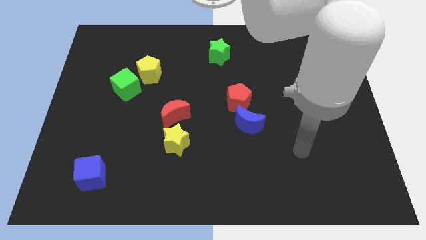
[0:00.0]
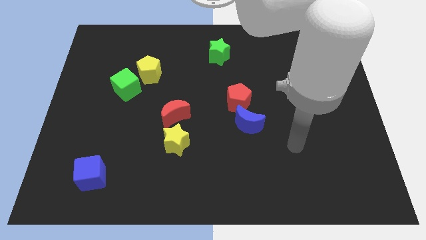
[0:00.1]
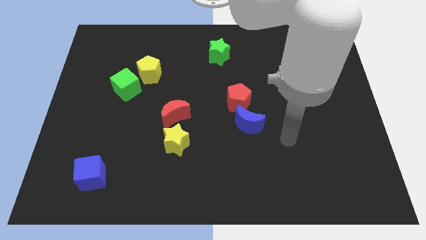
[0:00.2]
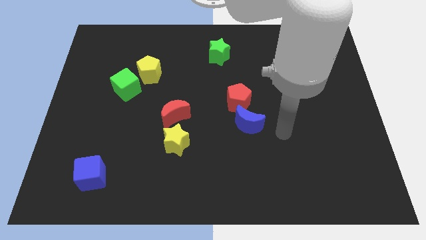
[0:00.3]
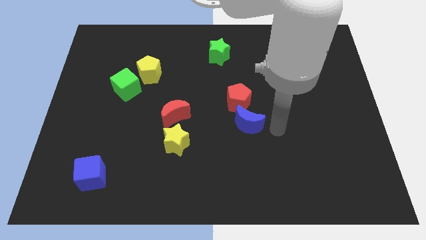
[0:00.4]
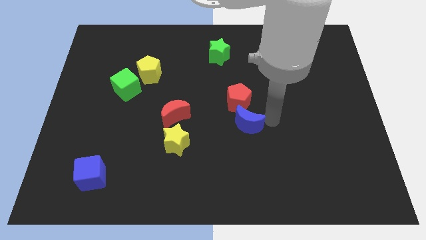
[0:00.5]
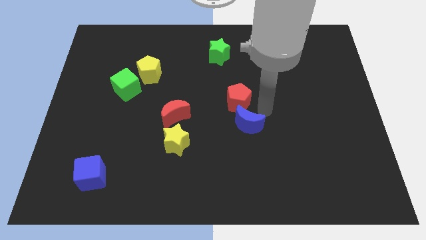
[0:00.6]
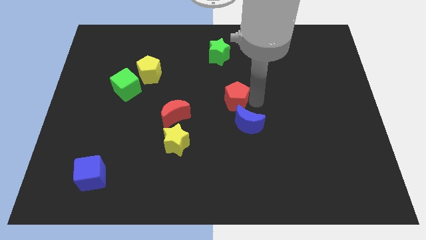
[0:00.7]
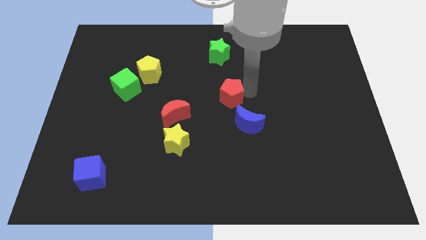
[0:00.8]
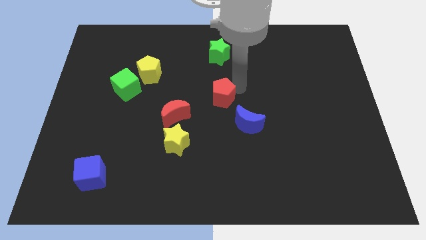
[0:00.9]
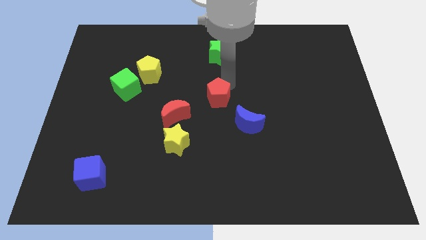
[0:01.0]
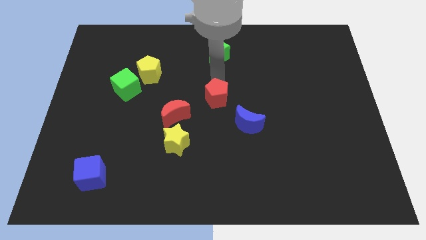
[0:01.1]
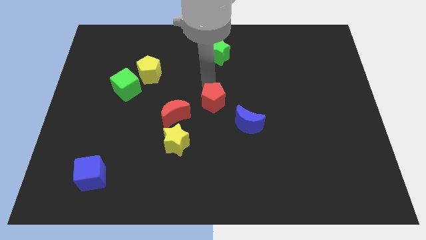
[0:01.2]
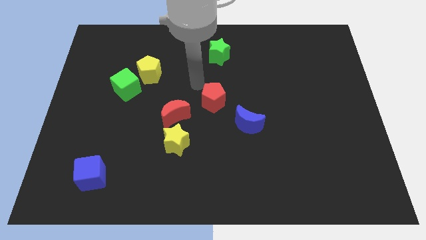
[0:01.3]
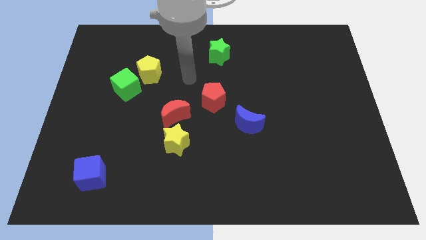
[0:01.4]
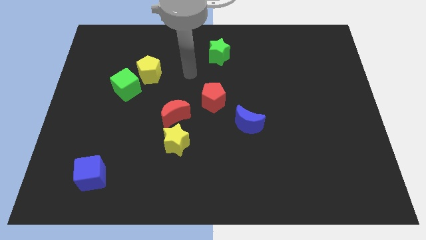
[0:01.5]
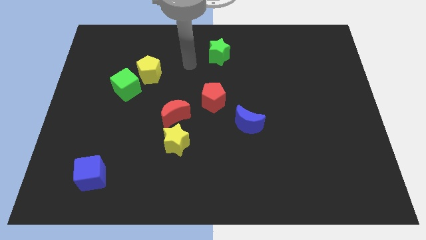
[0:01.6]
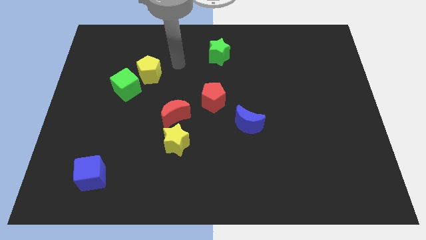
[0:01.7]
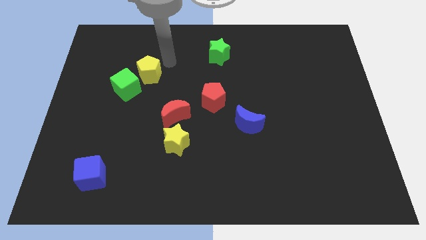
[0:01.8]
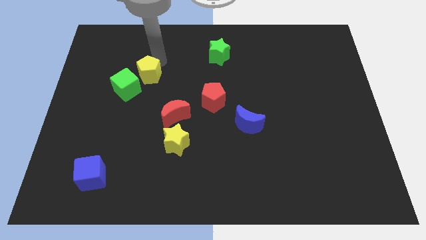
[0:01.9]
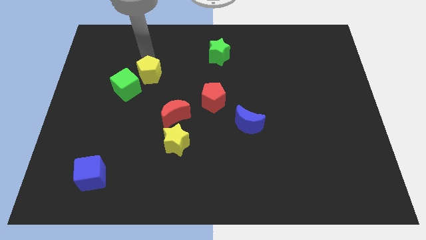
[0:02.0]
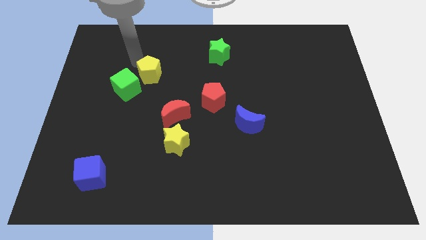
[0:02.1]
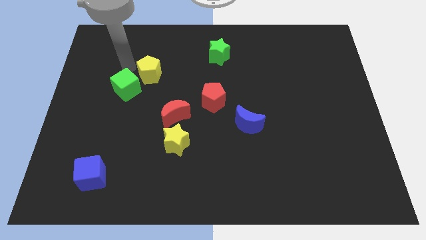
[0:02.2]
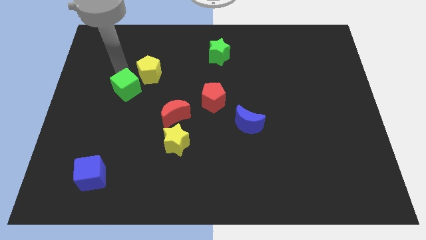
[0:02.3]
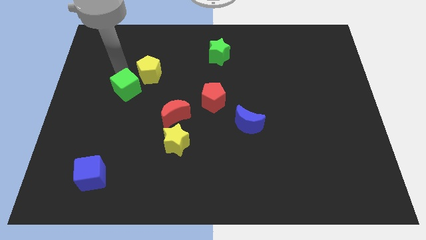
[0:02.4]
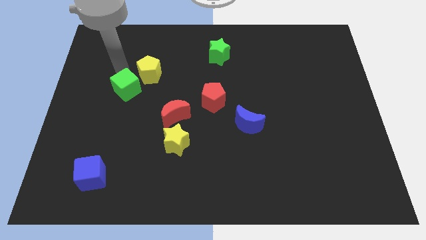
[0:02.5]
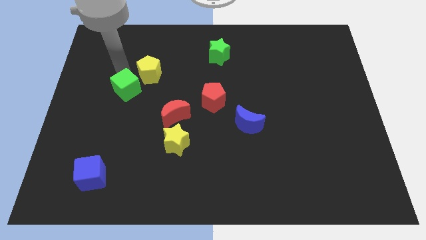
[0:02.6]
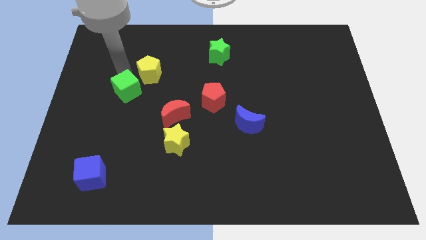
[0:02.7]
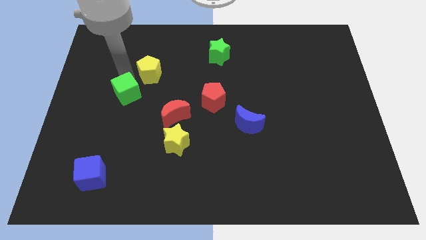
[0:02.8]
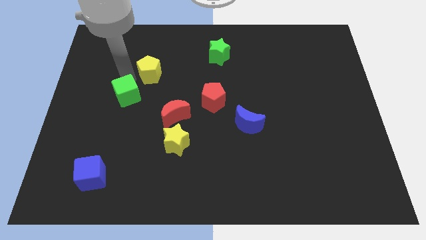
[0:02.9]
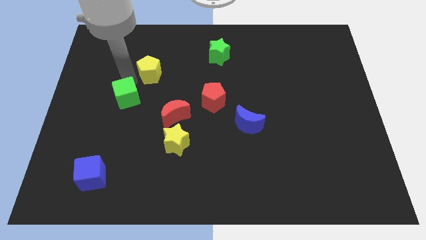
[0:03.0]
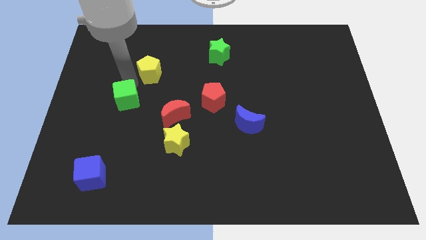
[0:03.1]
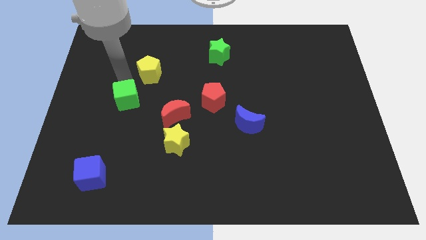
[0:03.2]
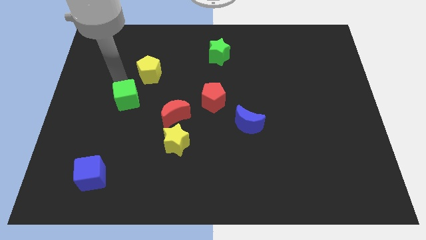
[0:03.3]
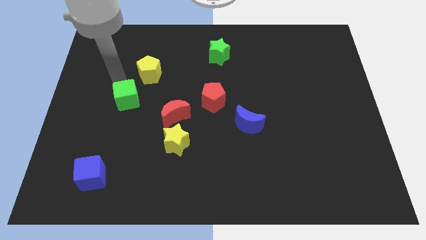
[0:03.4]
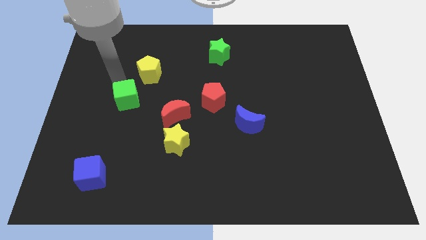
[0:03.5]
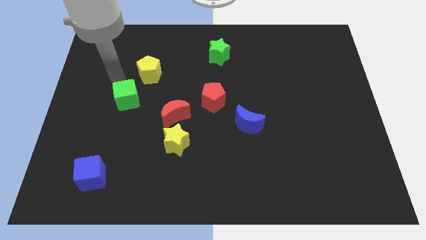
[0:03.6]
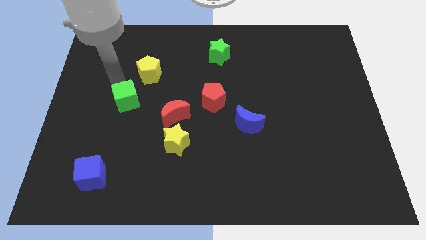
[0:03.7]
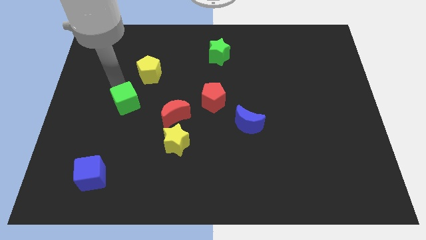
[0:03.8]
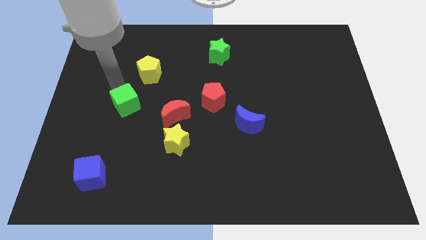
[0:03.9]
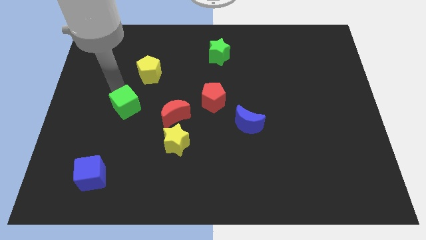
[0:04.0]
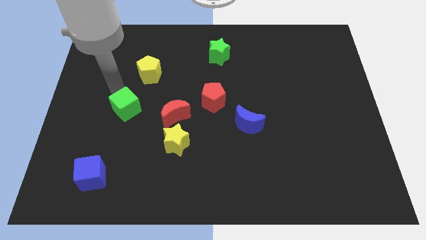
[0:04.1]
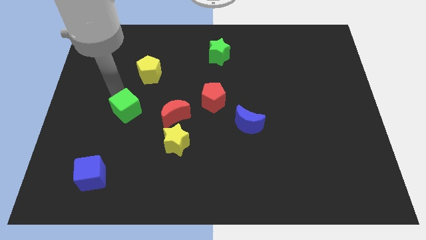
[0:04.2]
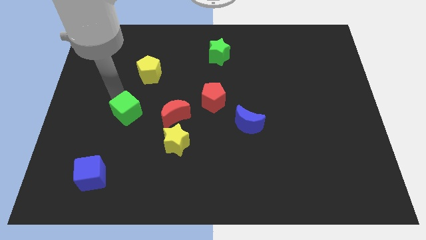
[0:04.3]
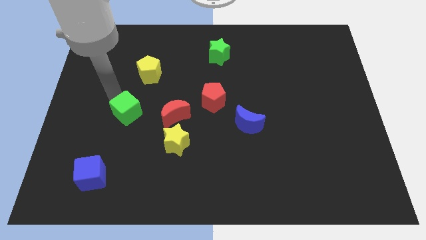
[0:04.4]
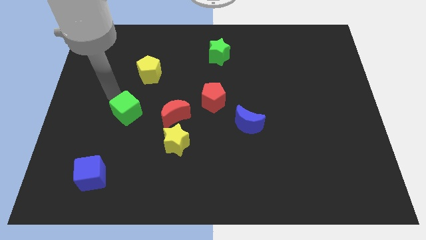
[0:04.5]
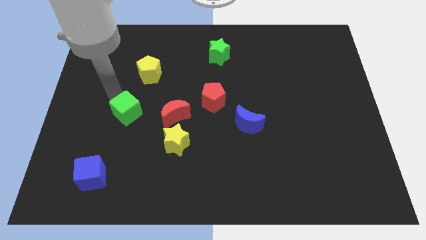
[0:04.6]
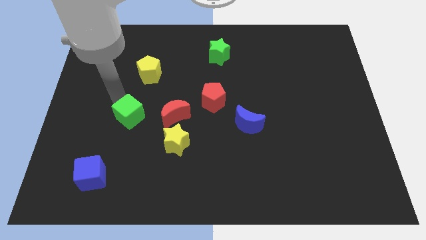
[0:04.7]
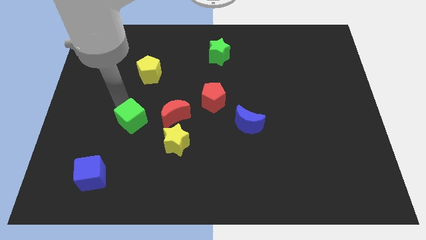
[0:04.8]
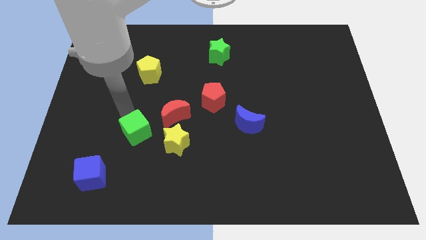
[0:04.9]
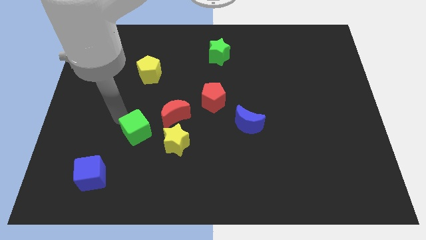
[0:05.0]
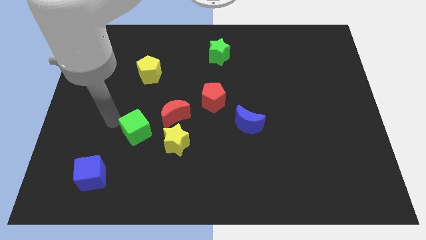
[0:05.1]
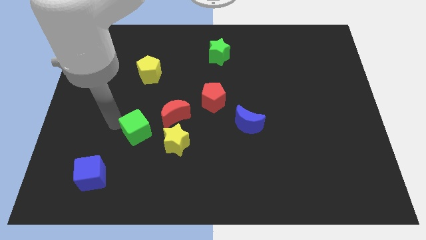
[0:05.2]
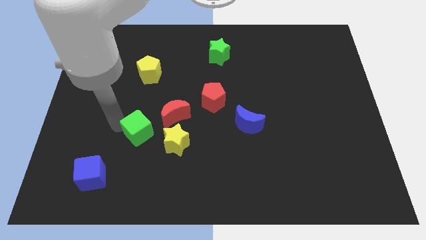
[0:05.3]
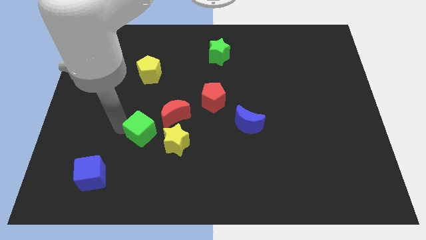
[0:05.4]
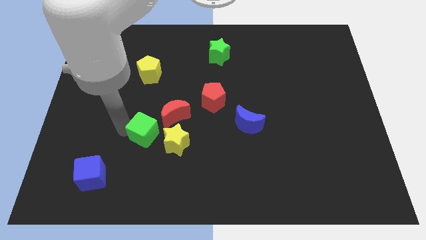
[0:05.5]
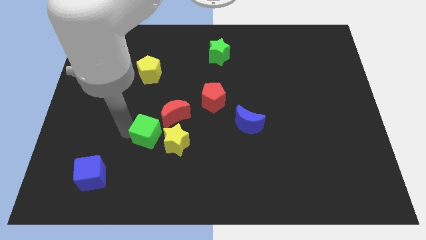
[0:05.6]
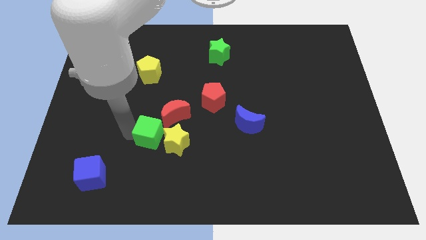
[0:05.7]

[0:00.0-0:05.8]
move the green cube close to the yellow star

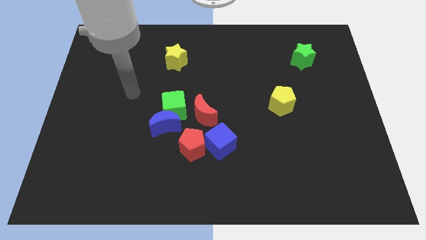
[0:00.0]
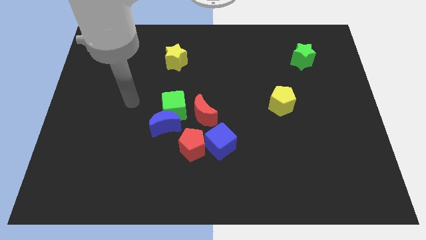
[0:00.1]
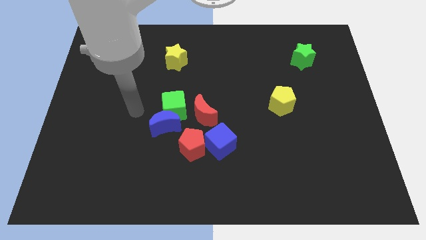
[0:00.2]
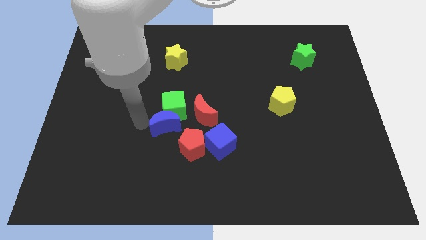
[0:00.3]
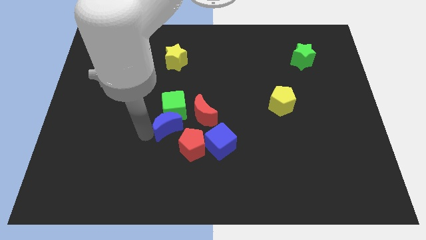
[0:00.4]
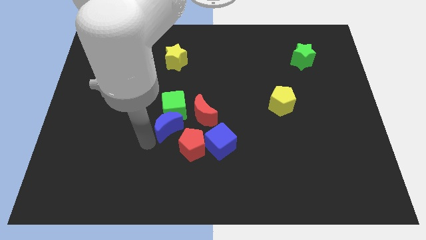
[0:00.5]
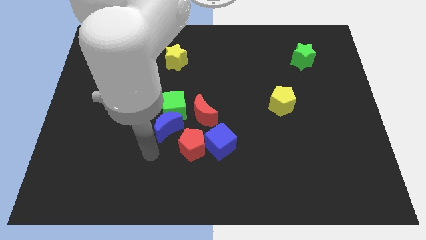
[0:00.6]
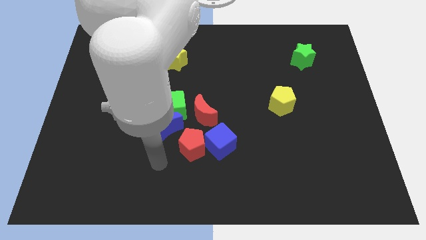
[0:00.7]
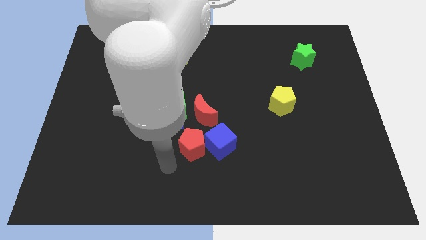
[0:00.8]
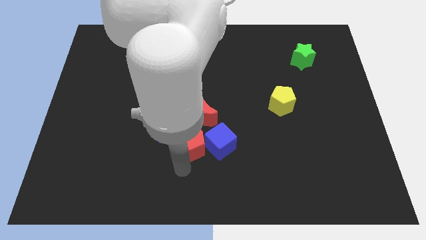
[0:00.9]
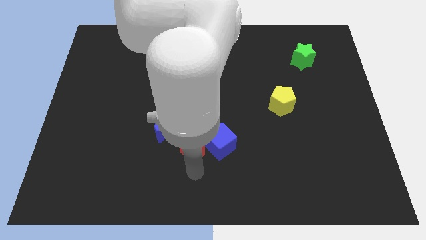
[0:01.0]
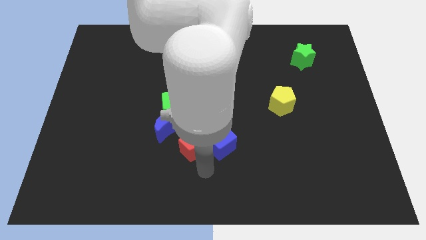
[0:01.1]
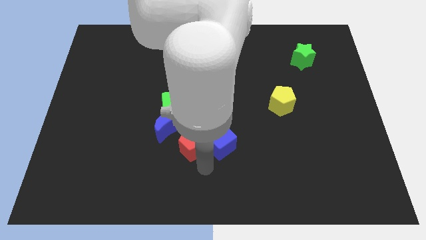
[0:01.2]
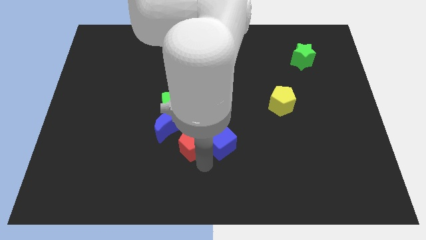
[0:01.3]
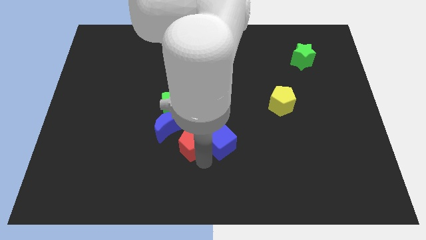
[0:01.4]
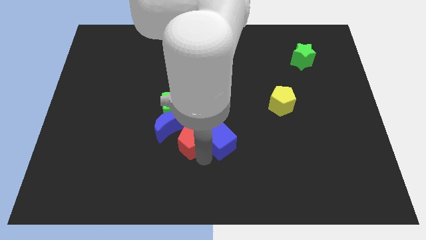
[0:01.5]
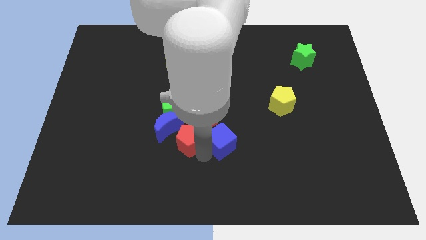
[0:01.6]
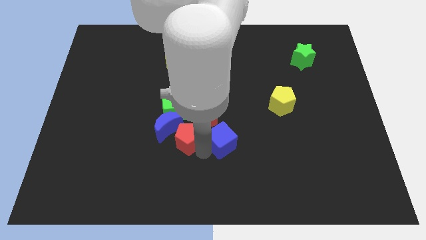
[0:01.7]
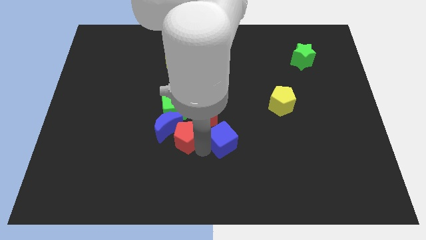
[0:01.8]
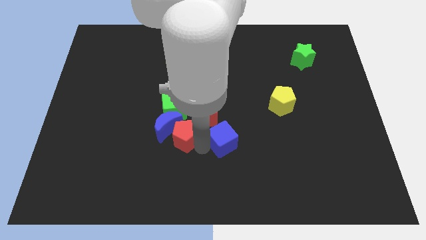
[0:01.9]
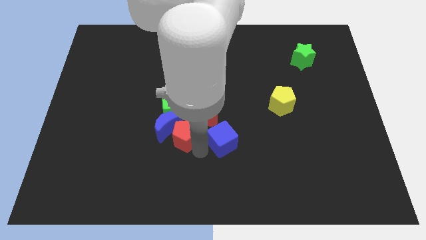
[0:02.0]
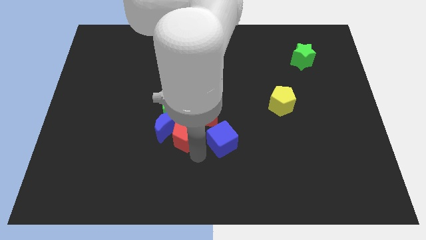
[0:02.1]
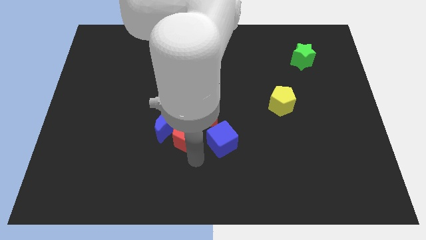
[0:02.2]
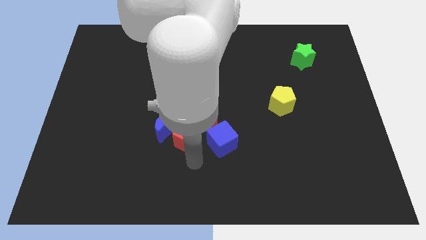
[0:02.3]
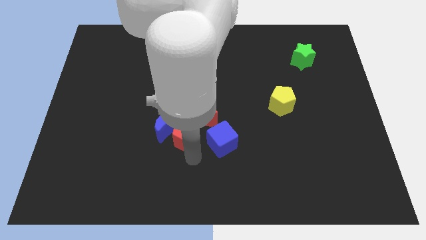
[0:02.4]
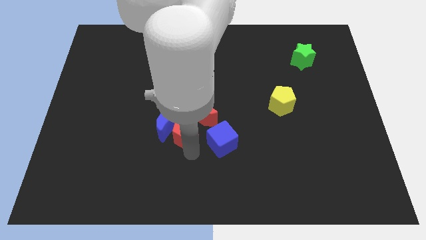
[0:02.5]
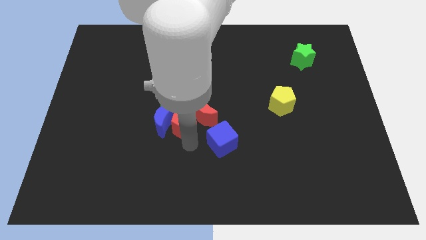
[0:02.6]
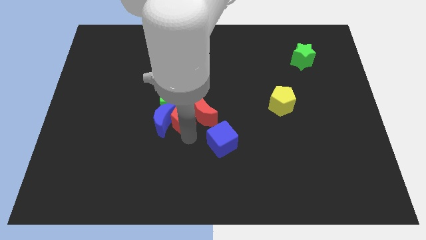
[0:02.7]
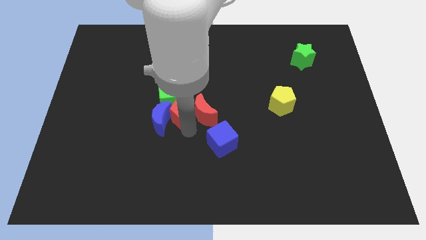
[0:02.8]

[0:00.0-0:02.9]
push the red pentagon towards the green cube

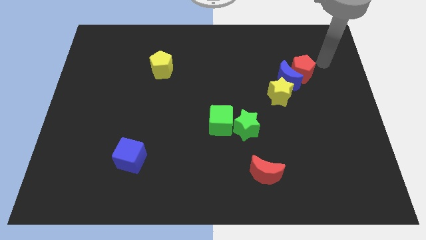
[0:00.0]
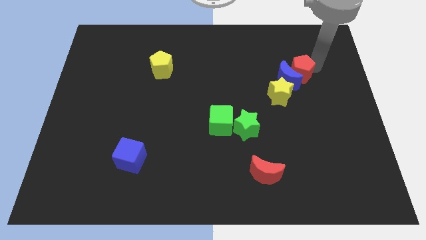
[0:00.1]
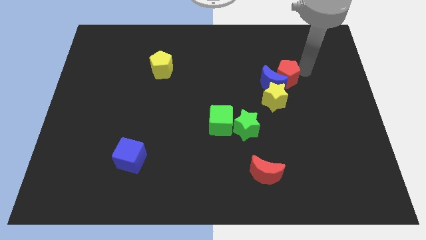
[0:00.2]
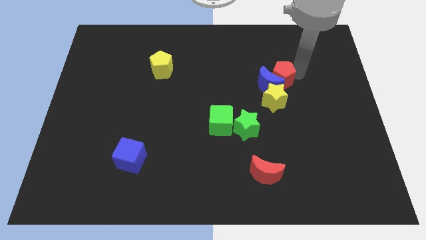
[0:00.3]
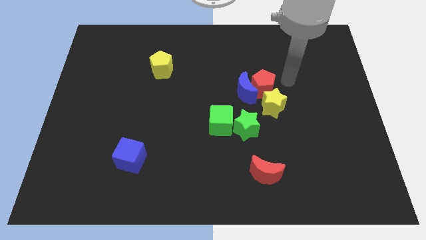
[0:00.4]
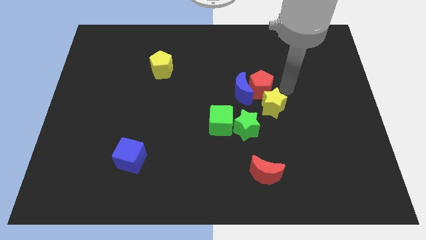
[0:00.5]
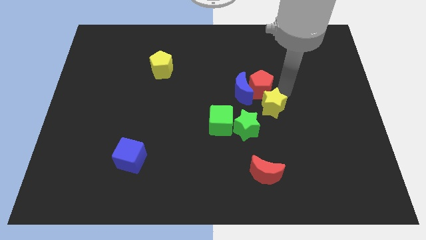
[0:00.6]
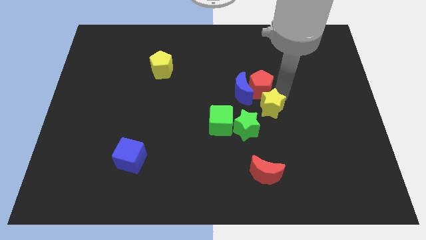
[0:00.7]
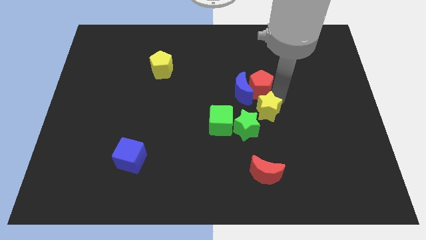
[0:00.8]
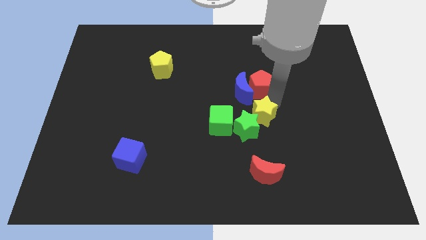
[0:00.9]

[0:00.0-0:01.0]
move the yellow star close to the green star
